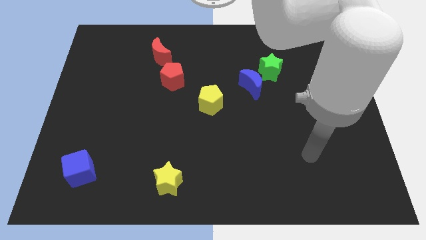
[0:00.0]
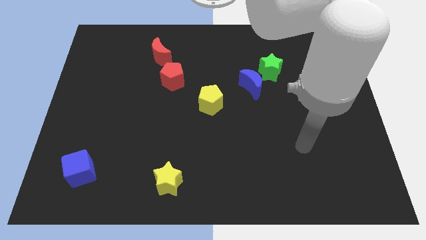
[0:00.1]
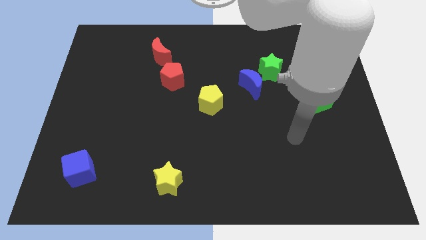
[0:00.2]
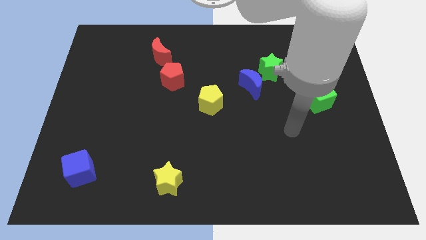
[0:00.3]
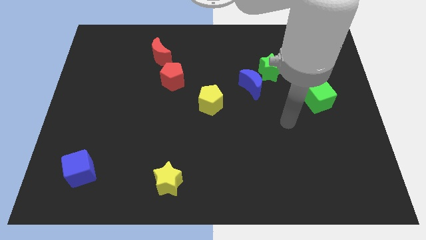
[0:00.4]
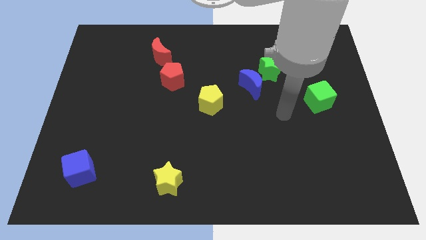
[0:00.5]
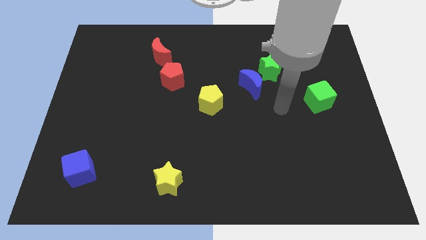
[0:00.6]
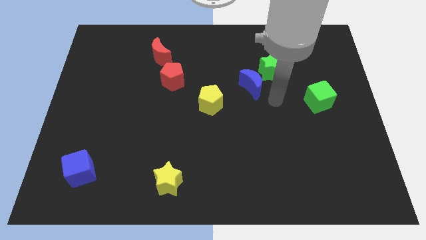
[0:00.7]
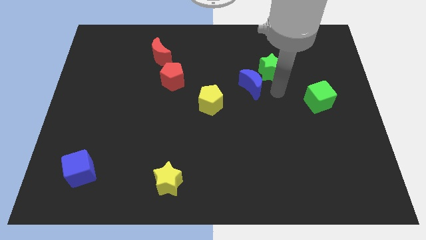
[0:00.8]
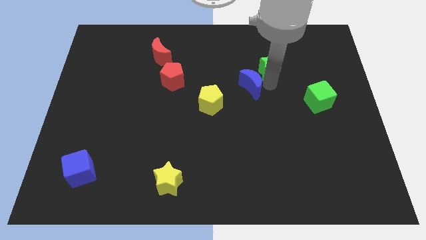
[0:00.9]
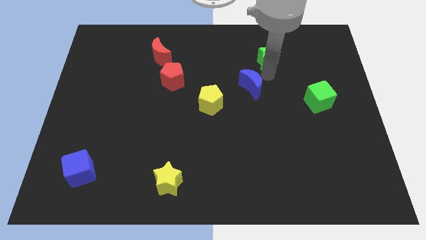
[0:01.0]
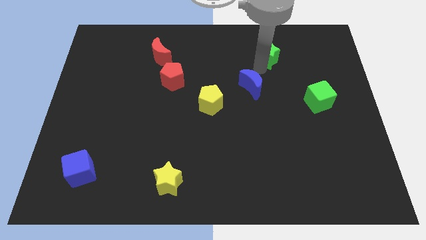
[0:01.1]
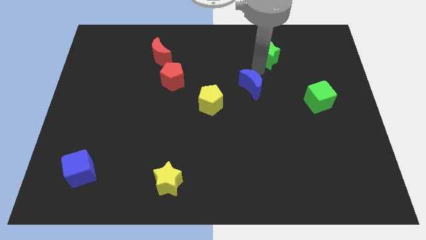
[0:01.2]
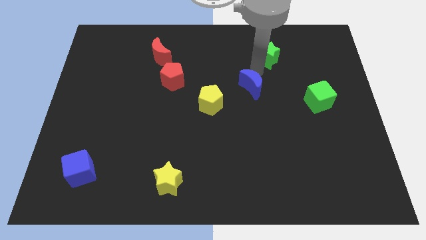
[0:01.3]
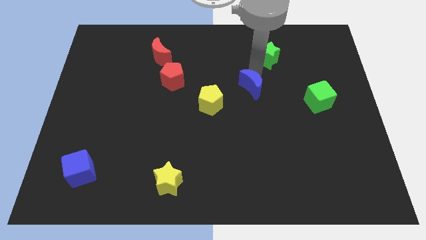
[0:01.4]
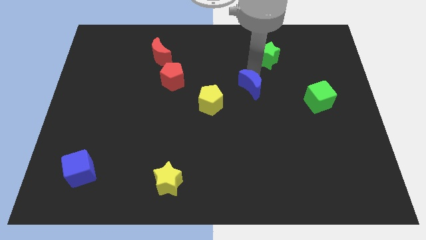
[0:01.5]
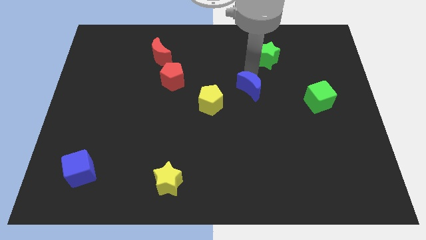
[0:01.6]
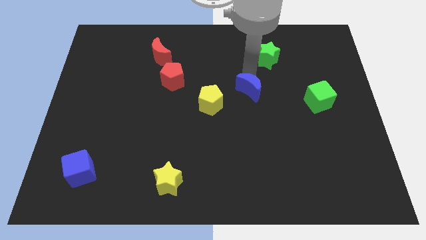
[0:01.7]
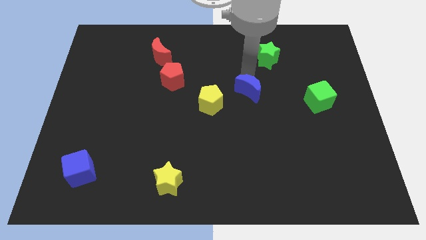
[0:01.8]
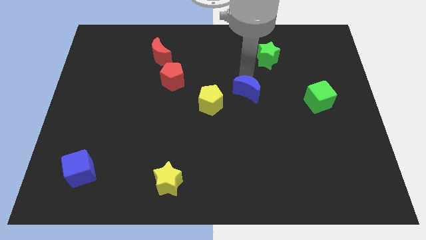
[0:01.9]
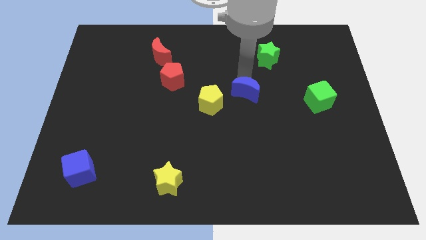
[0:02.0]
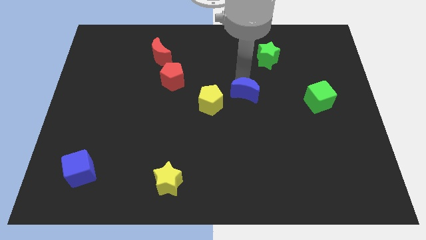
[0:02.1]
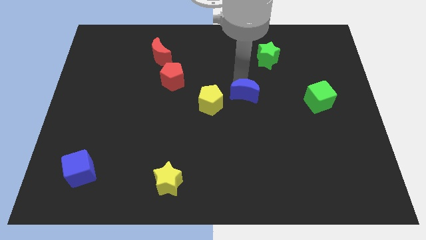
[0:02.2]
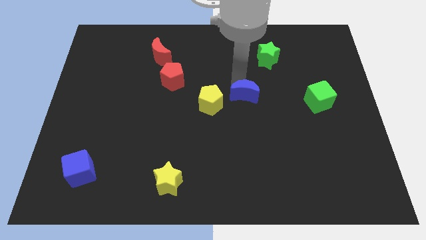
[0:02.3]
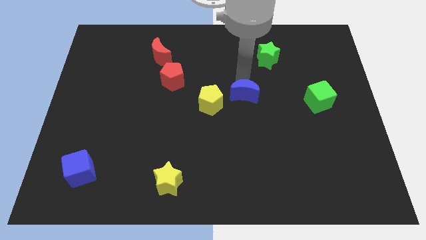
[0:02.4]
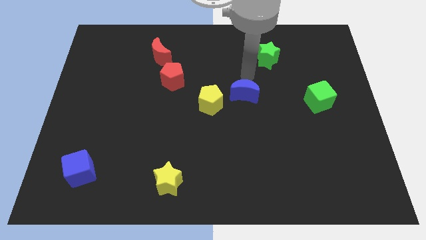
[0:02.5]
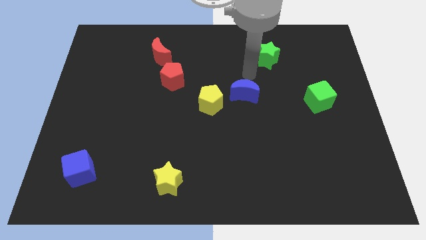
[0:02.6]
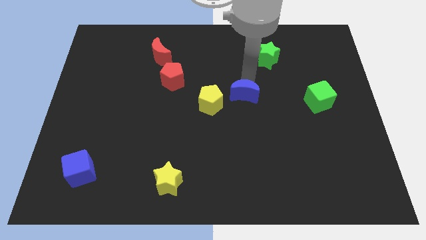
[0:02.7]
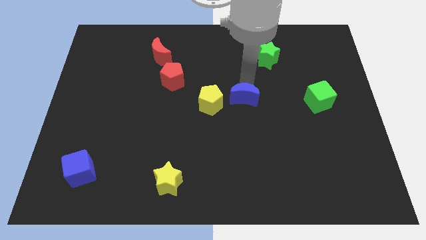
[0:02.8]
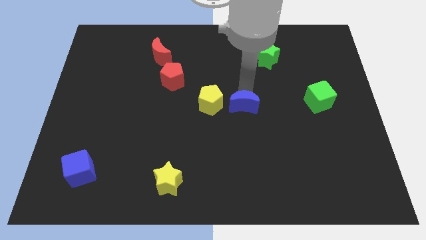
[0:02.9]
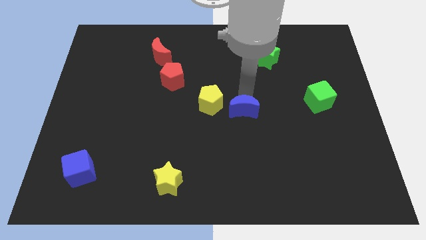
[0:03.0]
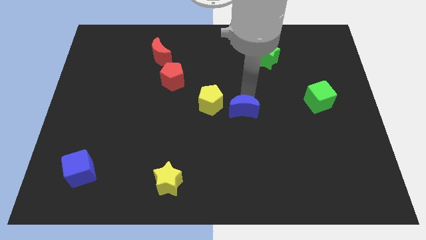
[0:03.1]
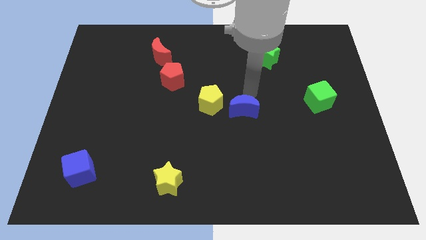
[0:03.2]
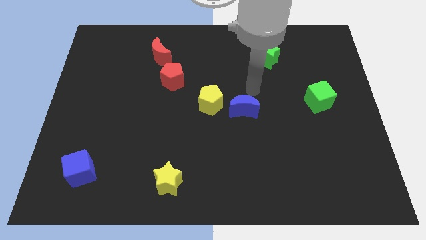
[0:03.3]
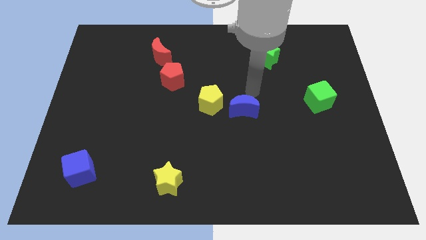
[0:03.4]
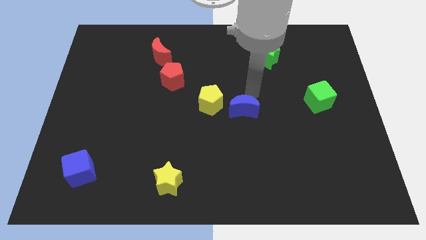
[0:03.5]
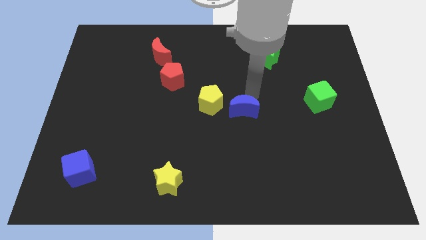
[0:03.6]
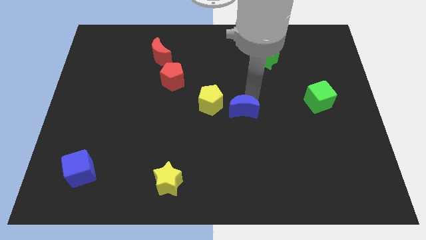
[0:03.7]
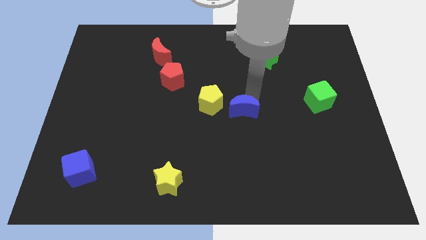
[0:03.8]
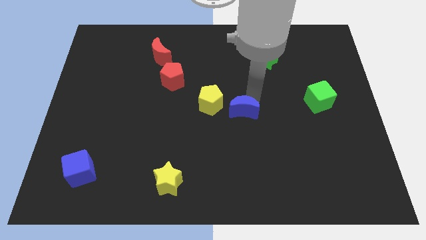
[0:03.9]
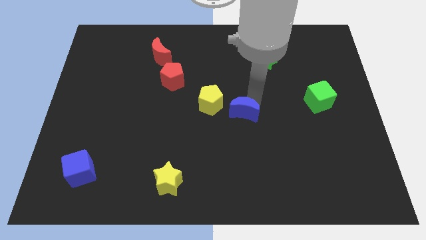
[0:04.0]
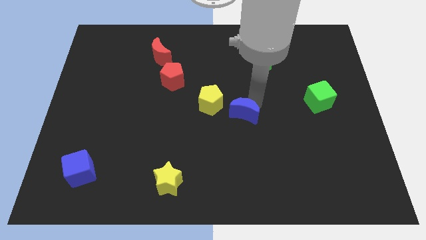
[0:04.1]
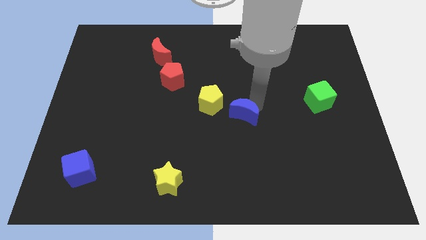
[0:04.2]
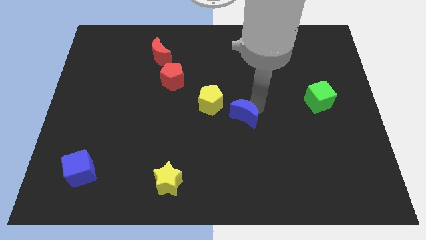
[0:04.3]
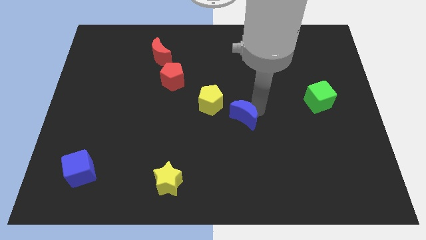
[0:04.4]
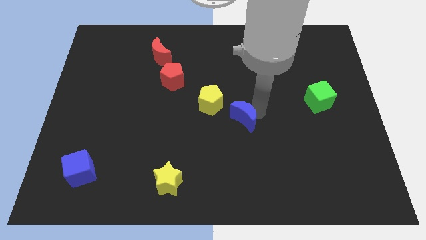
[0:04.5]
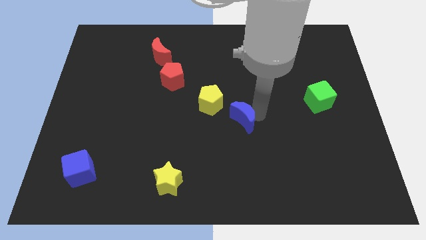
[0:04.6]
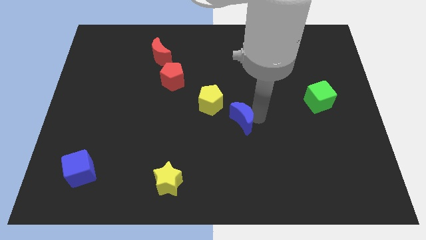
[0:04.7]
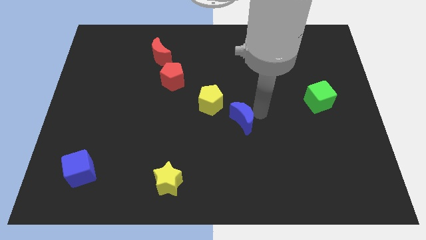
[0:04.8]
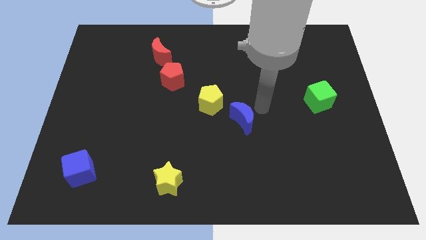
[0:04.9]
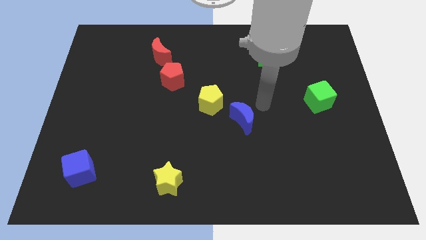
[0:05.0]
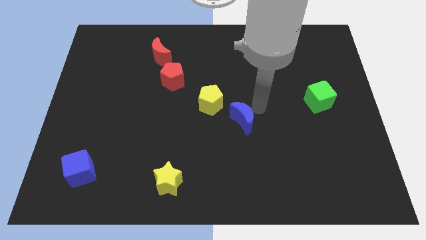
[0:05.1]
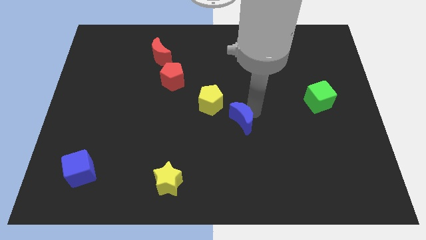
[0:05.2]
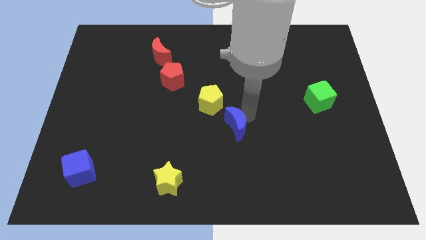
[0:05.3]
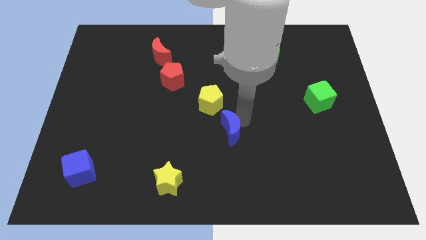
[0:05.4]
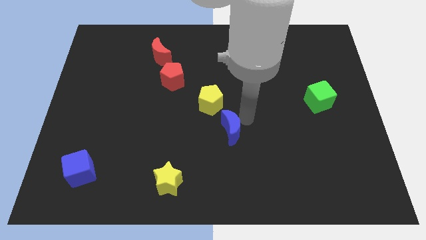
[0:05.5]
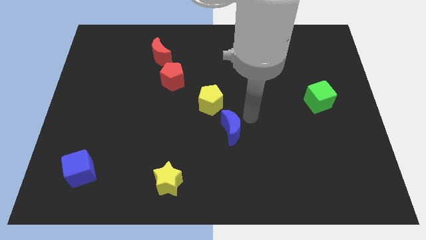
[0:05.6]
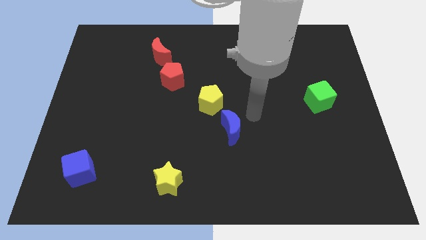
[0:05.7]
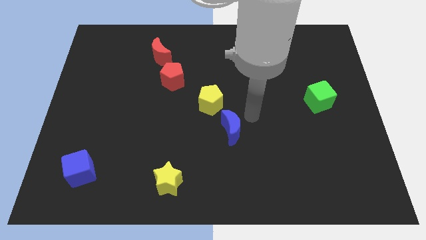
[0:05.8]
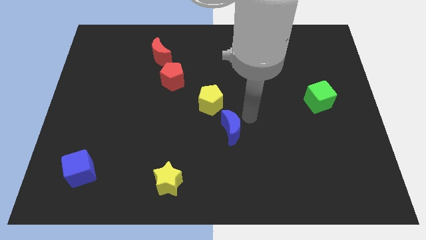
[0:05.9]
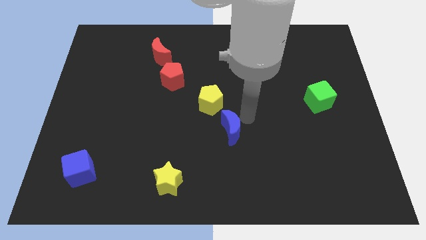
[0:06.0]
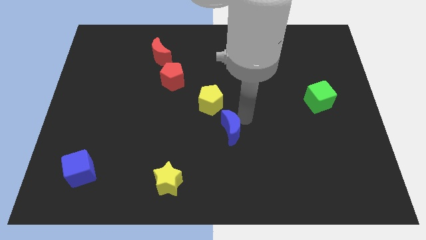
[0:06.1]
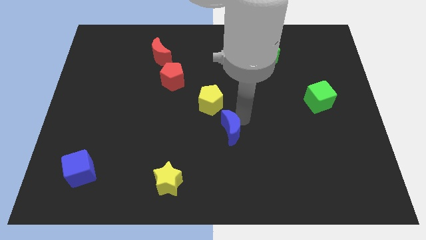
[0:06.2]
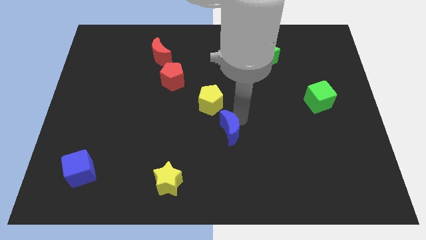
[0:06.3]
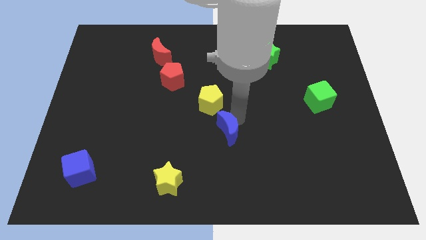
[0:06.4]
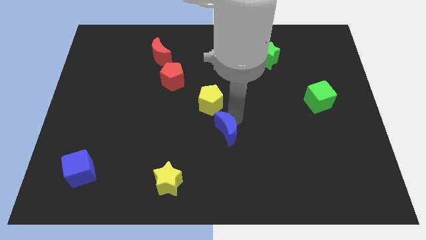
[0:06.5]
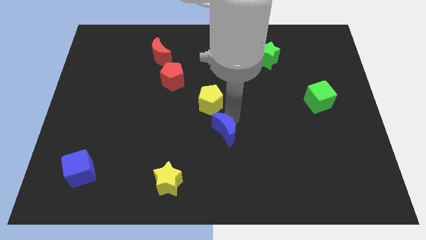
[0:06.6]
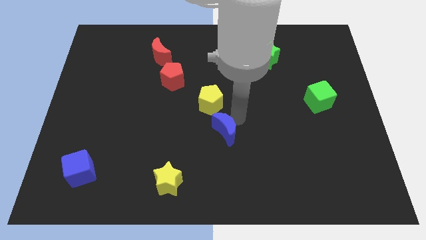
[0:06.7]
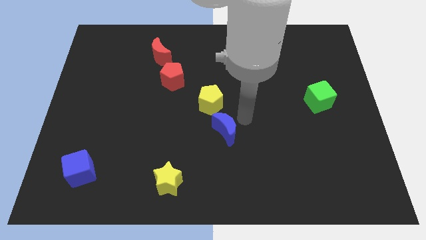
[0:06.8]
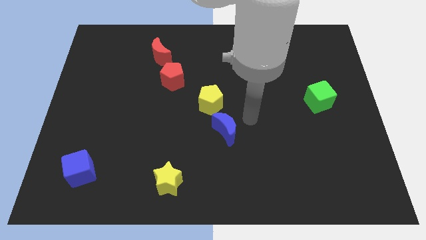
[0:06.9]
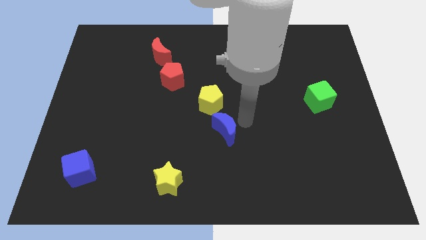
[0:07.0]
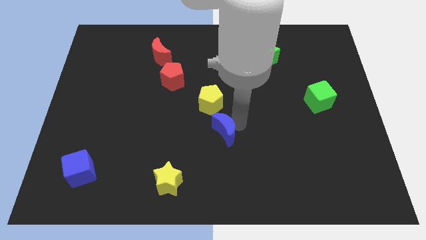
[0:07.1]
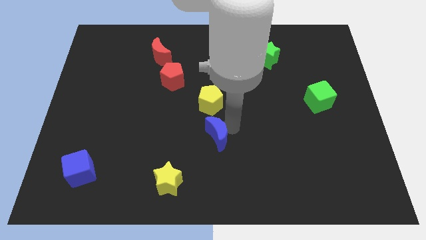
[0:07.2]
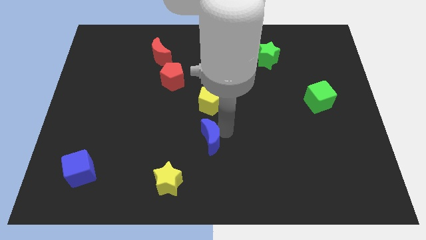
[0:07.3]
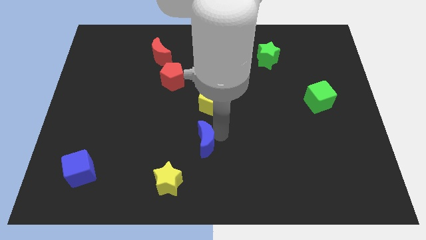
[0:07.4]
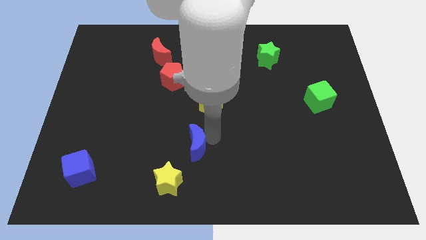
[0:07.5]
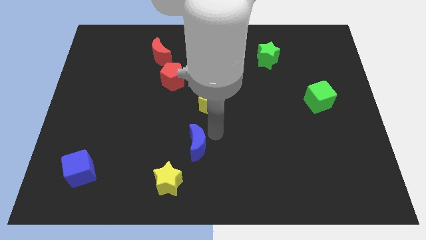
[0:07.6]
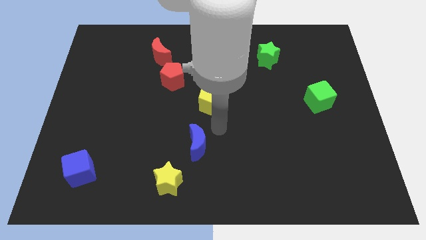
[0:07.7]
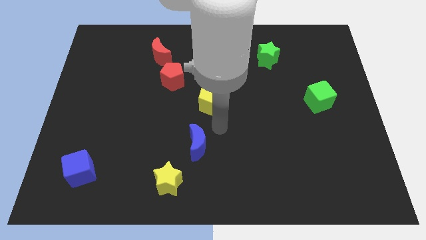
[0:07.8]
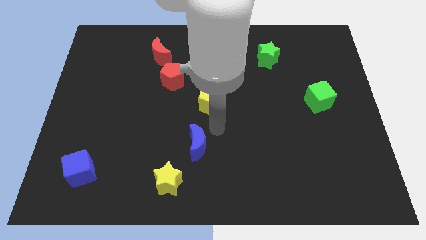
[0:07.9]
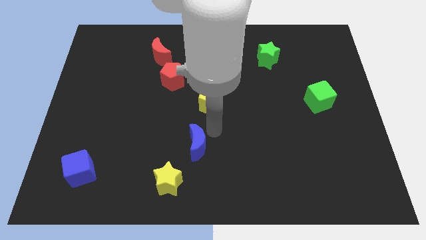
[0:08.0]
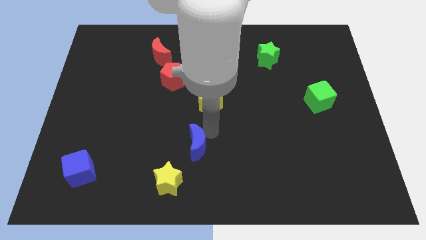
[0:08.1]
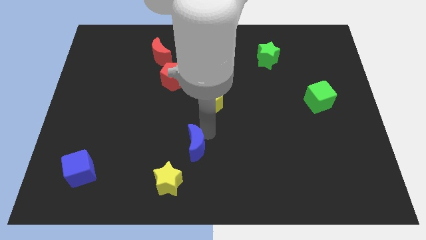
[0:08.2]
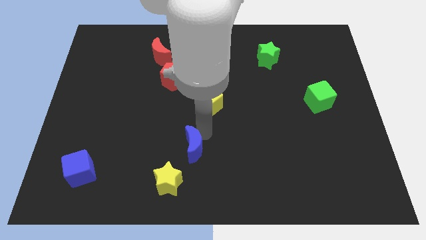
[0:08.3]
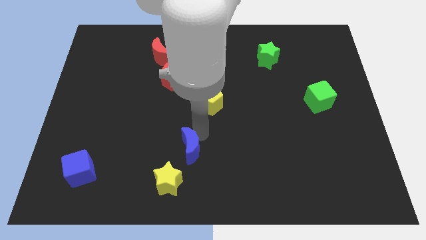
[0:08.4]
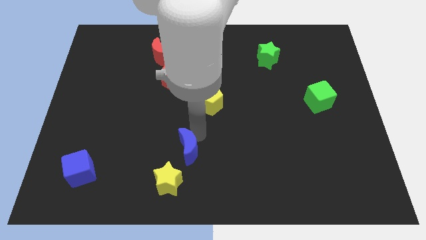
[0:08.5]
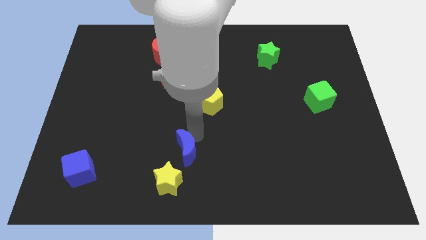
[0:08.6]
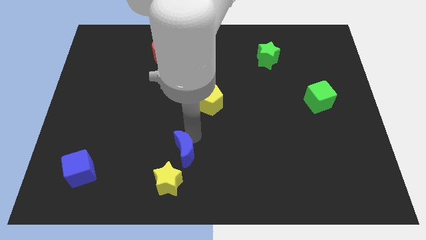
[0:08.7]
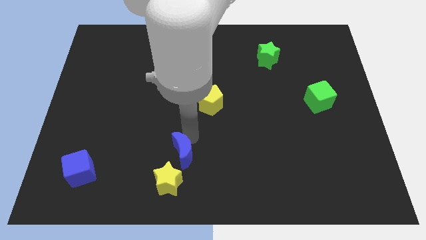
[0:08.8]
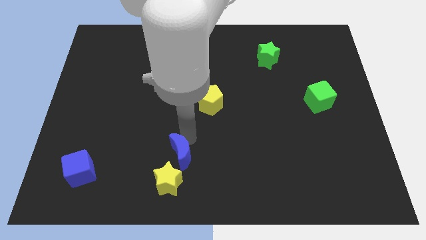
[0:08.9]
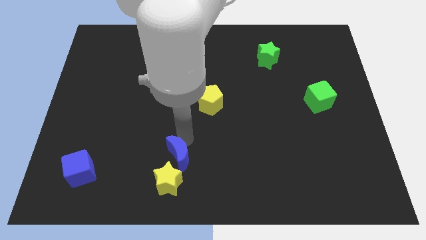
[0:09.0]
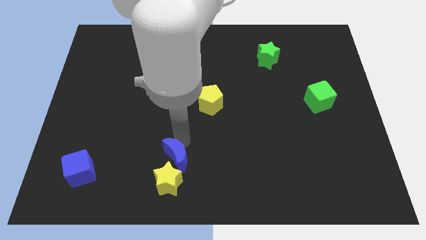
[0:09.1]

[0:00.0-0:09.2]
slide the blue moon to the yellow star
